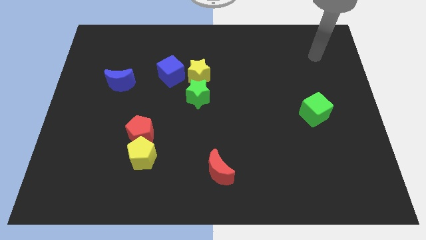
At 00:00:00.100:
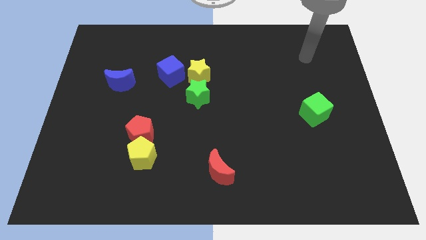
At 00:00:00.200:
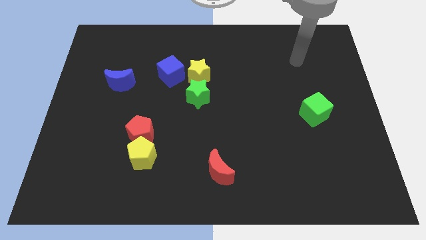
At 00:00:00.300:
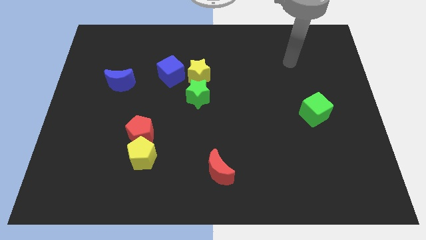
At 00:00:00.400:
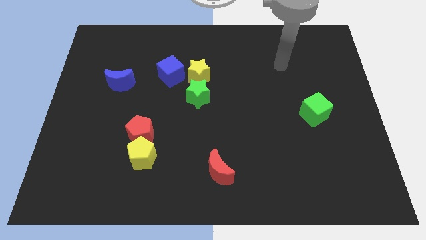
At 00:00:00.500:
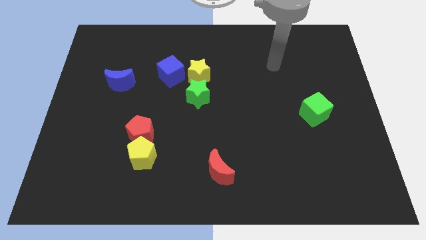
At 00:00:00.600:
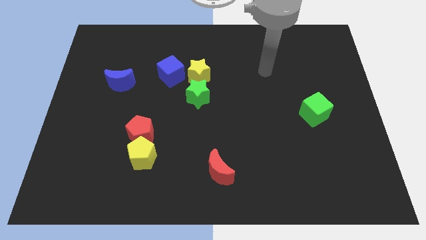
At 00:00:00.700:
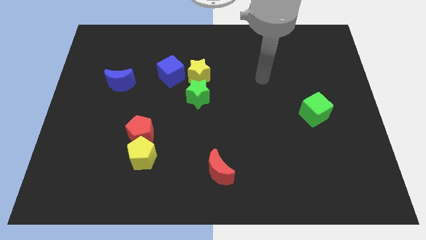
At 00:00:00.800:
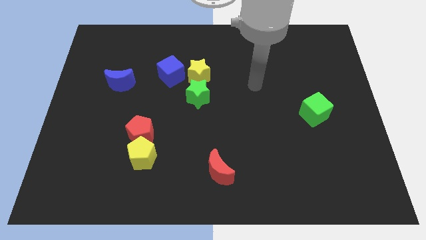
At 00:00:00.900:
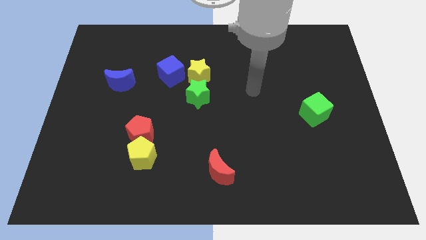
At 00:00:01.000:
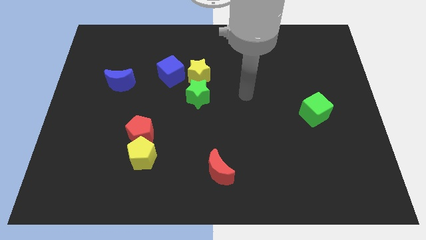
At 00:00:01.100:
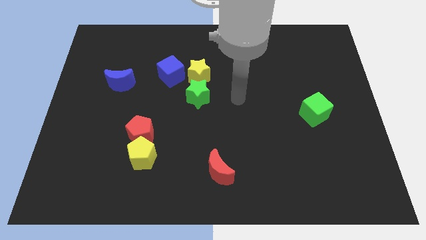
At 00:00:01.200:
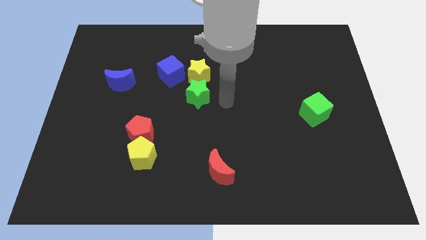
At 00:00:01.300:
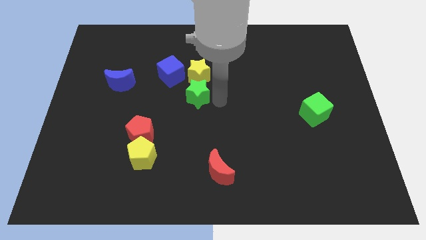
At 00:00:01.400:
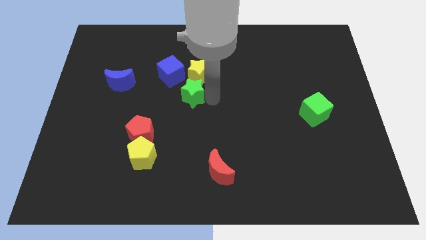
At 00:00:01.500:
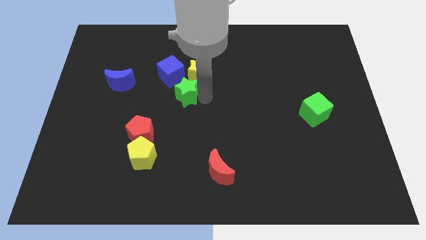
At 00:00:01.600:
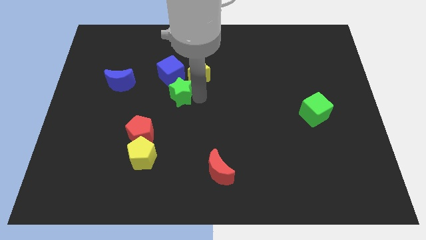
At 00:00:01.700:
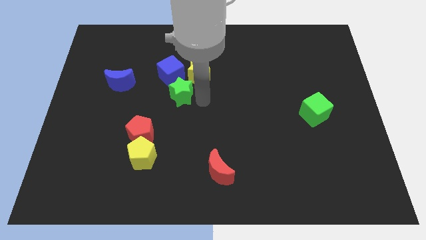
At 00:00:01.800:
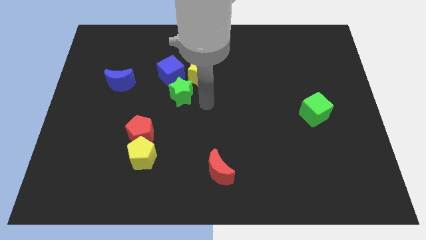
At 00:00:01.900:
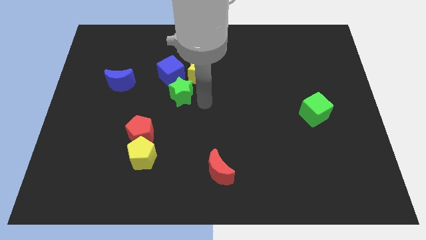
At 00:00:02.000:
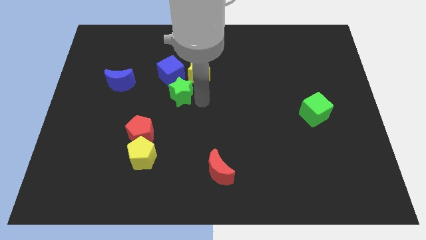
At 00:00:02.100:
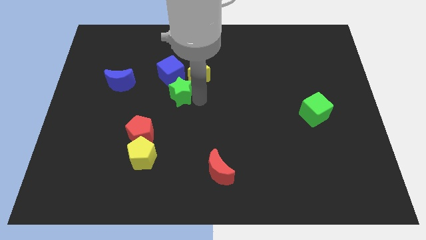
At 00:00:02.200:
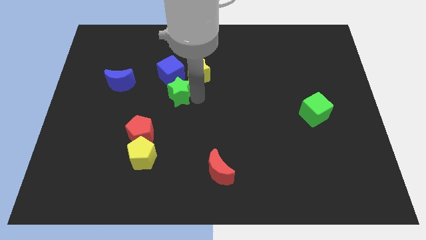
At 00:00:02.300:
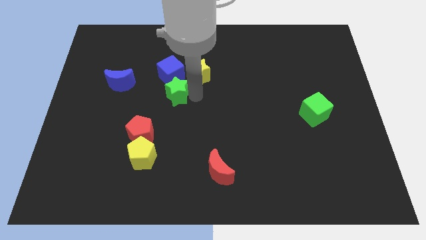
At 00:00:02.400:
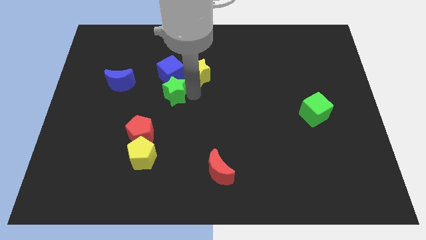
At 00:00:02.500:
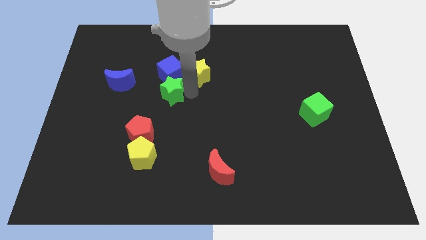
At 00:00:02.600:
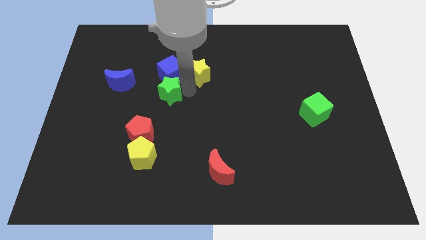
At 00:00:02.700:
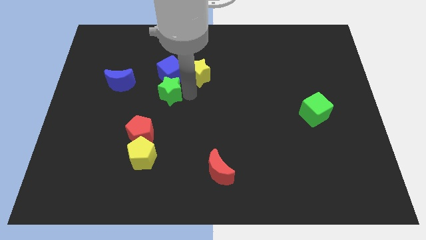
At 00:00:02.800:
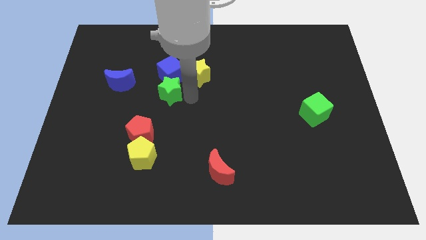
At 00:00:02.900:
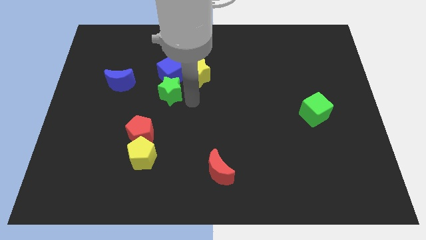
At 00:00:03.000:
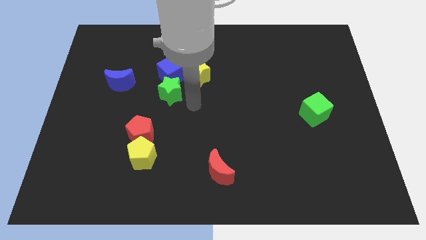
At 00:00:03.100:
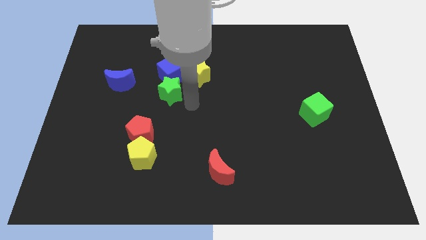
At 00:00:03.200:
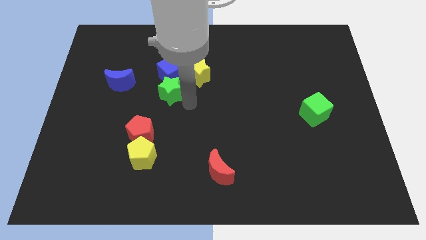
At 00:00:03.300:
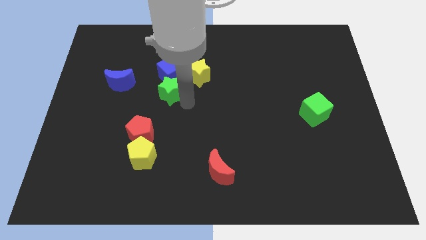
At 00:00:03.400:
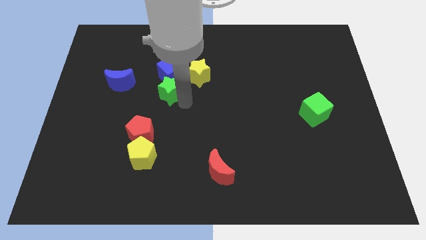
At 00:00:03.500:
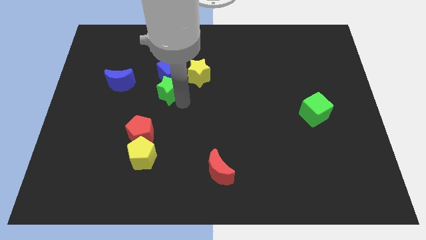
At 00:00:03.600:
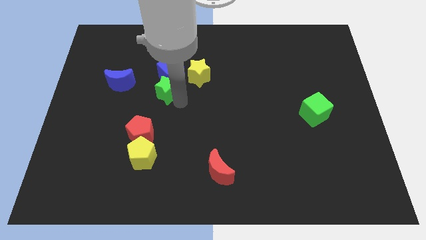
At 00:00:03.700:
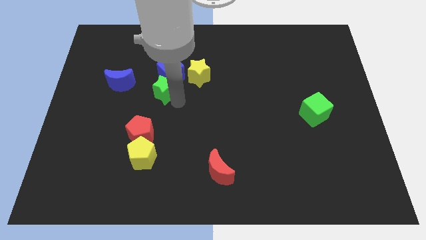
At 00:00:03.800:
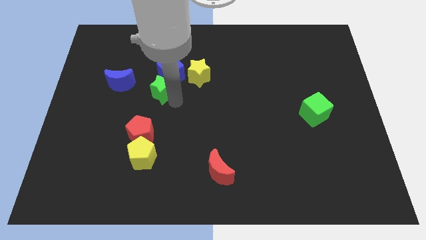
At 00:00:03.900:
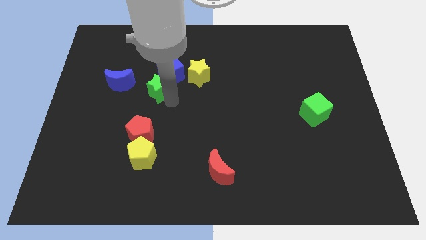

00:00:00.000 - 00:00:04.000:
slide the green star upwards and left diagonally a bit

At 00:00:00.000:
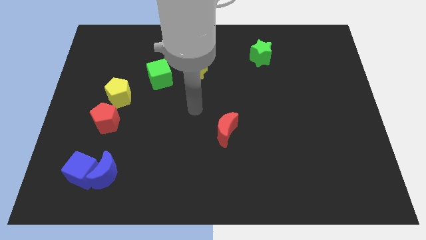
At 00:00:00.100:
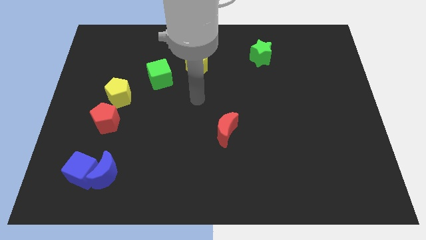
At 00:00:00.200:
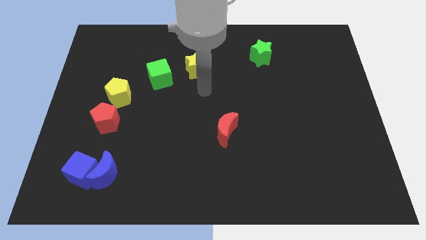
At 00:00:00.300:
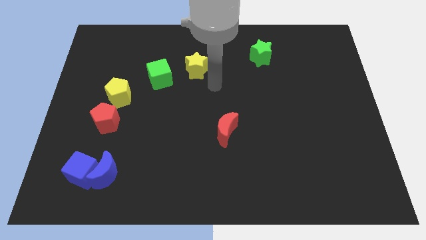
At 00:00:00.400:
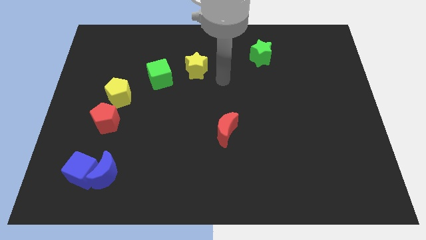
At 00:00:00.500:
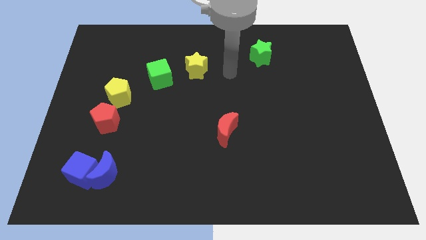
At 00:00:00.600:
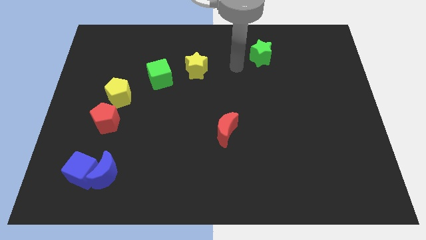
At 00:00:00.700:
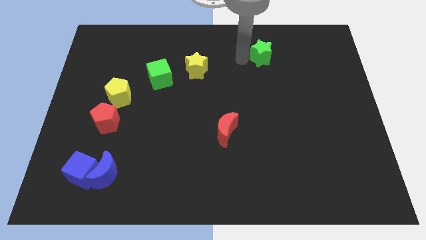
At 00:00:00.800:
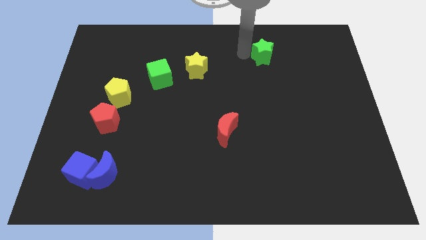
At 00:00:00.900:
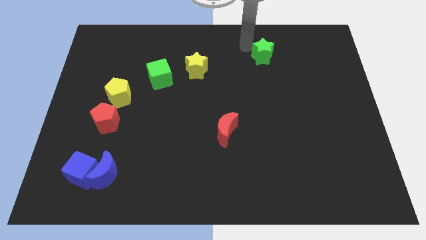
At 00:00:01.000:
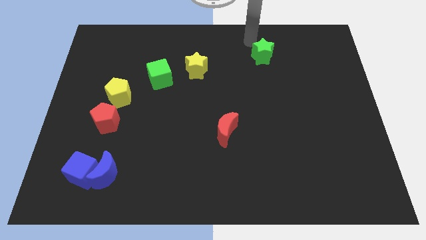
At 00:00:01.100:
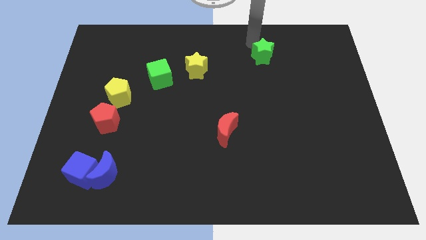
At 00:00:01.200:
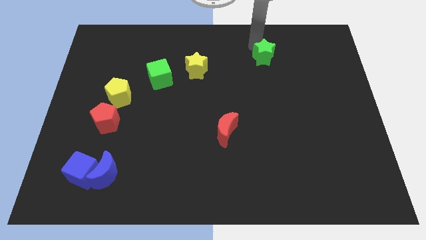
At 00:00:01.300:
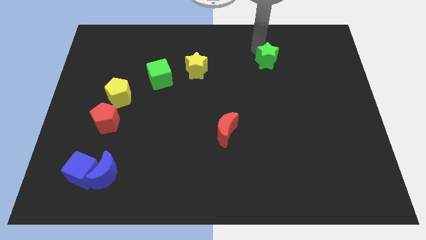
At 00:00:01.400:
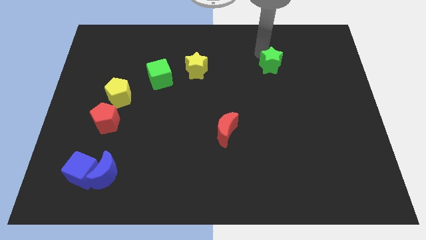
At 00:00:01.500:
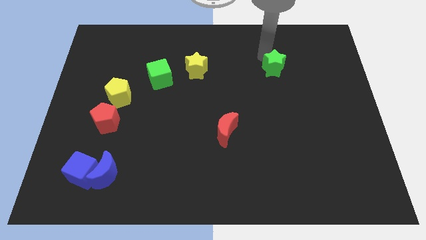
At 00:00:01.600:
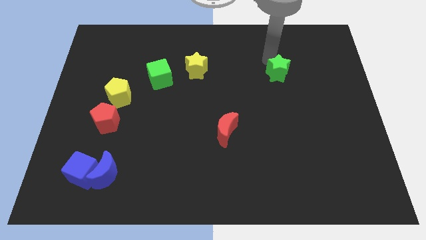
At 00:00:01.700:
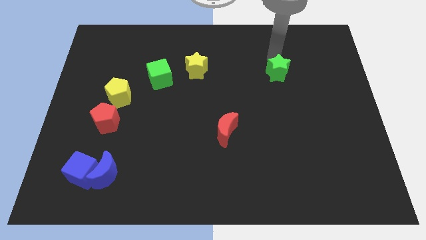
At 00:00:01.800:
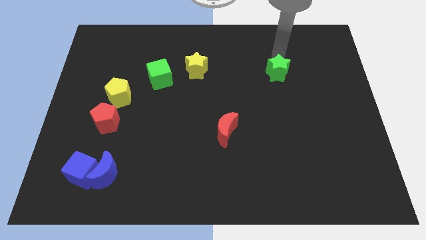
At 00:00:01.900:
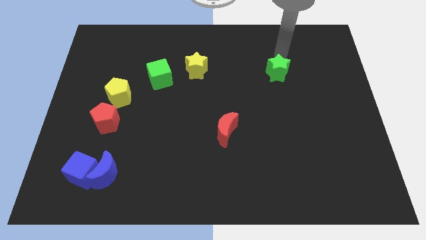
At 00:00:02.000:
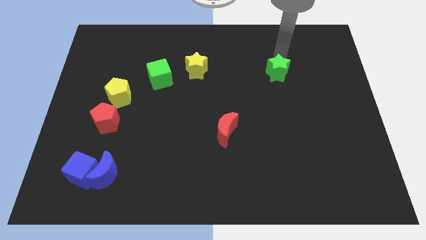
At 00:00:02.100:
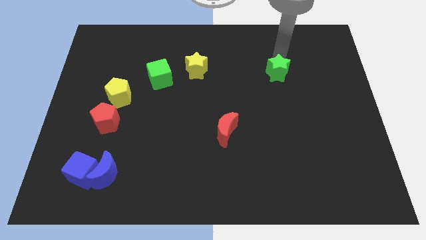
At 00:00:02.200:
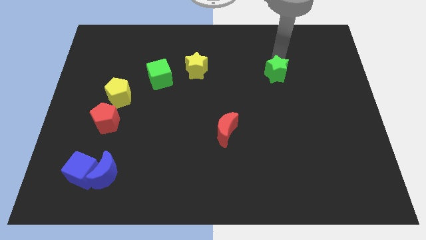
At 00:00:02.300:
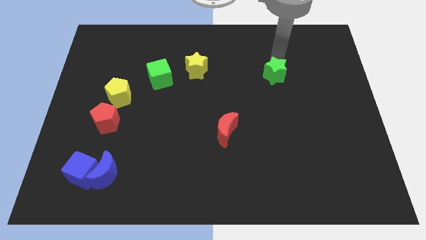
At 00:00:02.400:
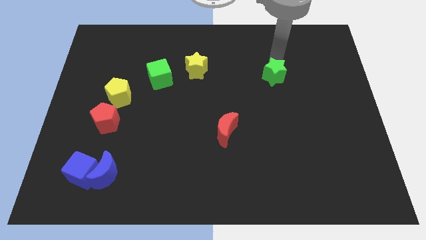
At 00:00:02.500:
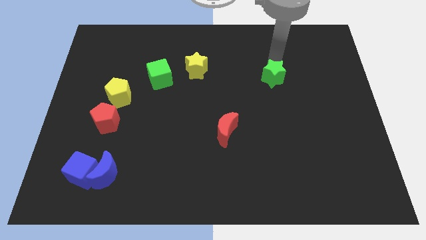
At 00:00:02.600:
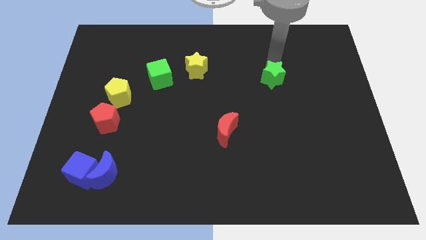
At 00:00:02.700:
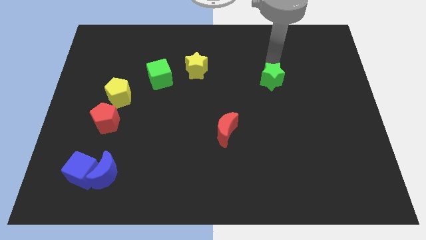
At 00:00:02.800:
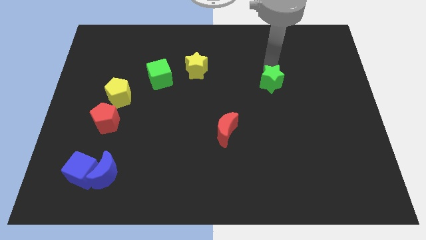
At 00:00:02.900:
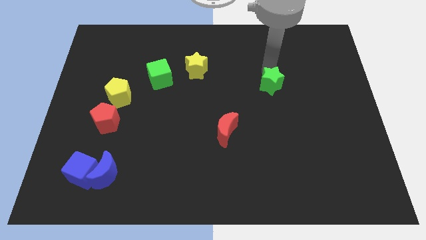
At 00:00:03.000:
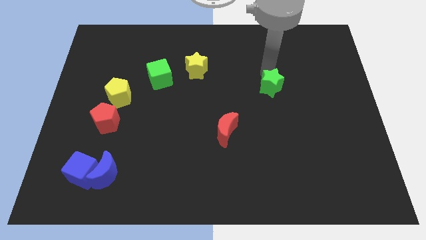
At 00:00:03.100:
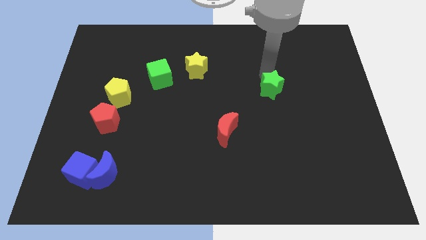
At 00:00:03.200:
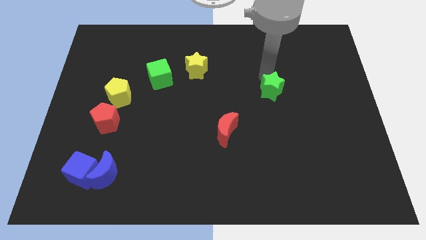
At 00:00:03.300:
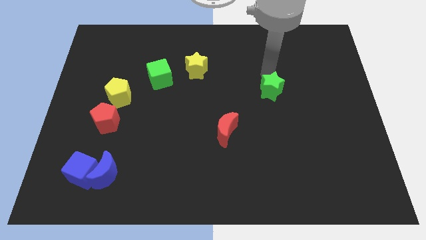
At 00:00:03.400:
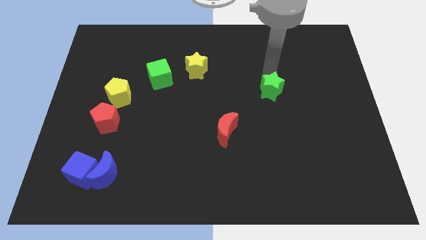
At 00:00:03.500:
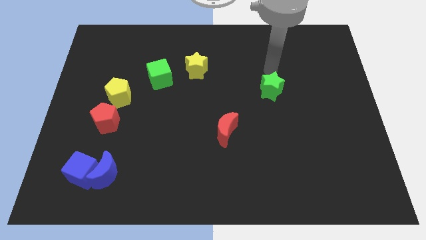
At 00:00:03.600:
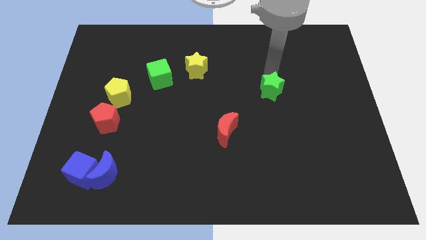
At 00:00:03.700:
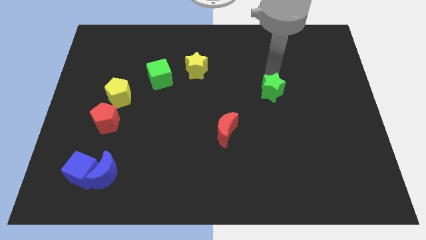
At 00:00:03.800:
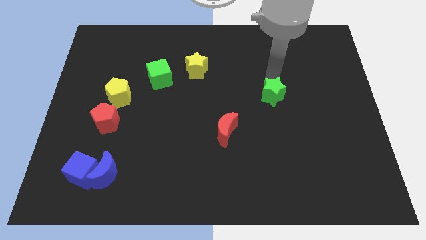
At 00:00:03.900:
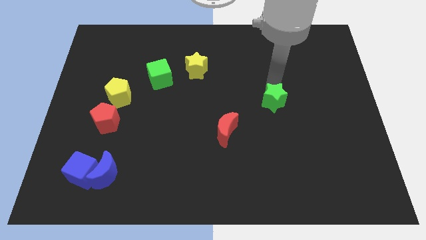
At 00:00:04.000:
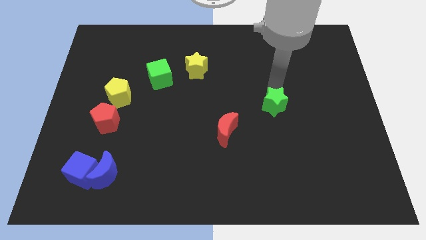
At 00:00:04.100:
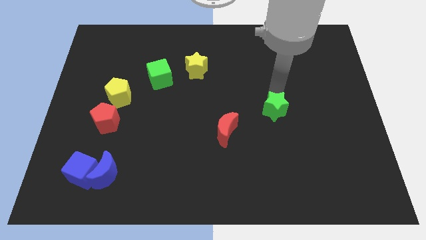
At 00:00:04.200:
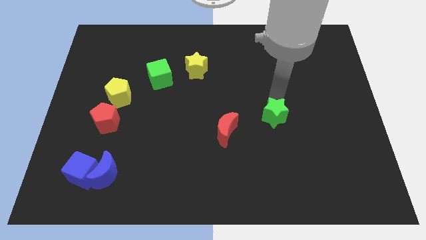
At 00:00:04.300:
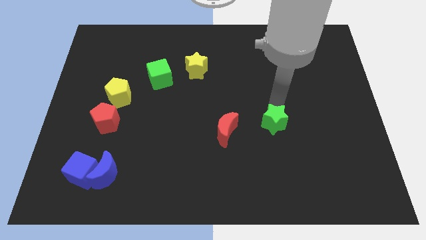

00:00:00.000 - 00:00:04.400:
push the green star down
